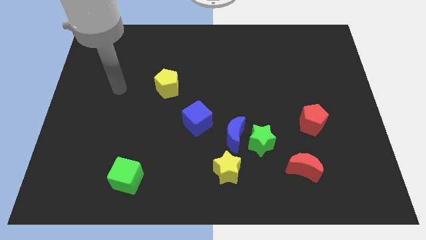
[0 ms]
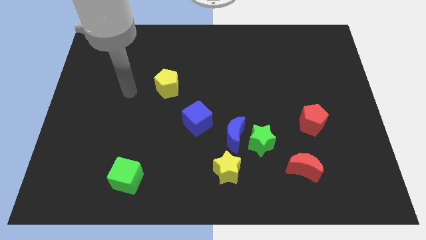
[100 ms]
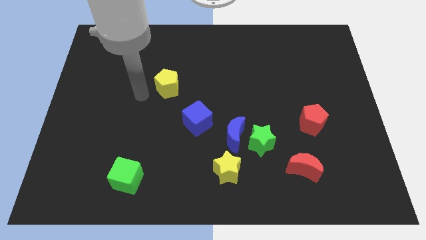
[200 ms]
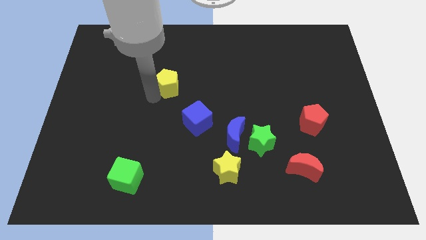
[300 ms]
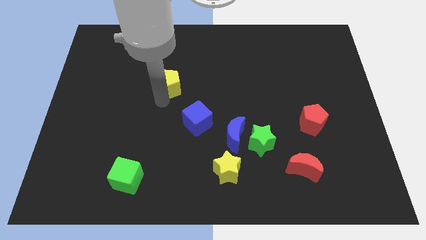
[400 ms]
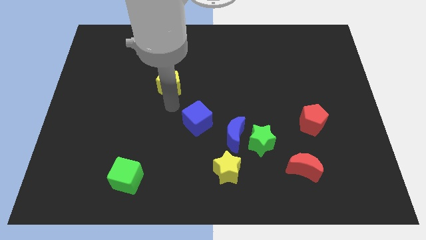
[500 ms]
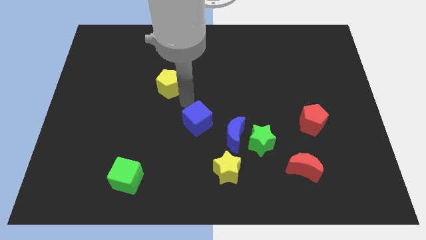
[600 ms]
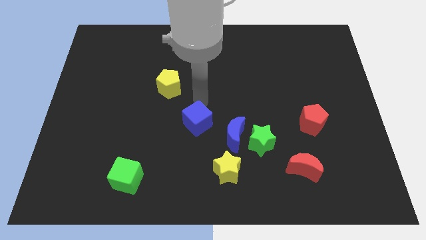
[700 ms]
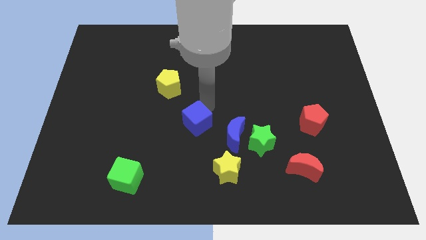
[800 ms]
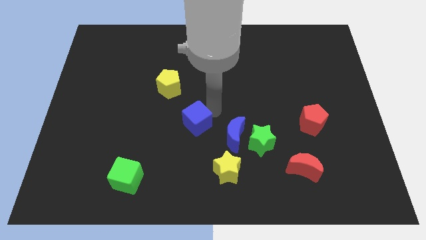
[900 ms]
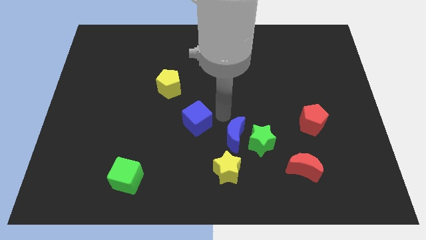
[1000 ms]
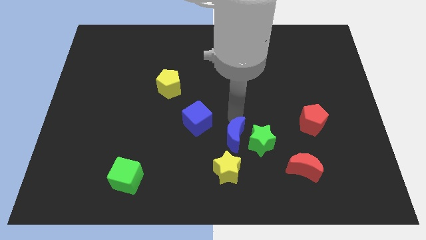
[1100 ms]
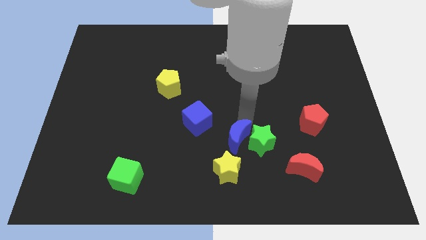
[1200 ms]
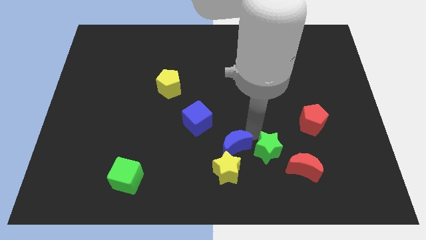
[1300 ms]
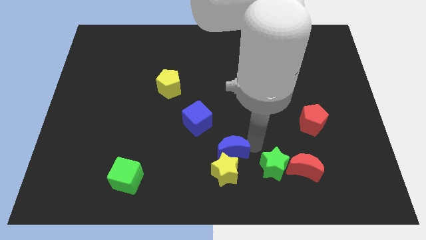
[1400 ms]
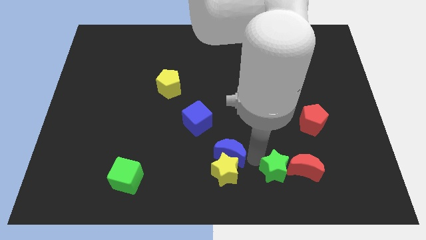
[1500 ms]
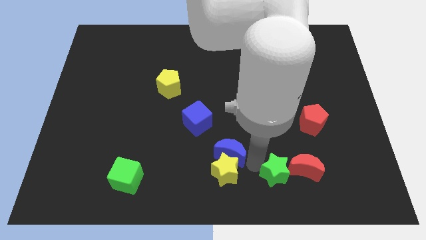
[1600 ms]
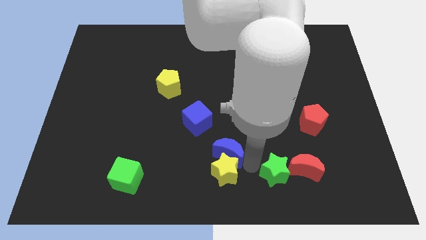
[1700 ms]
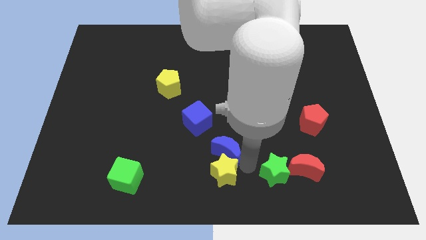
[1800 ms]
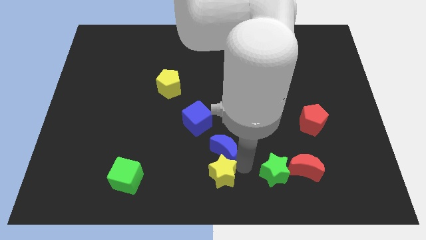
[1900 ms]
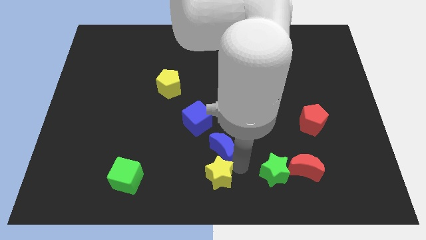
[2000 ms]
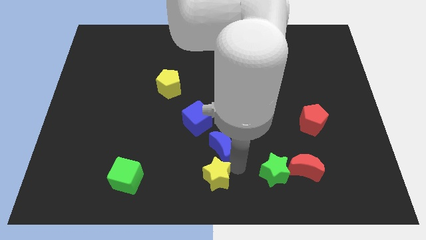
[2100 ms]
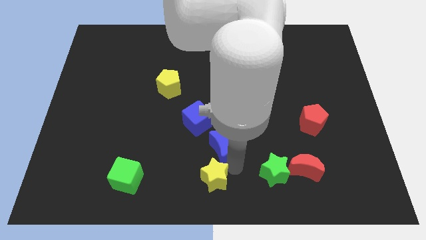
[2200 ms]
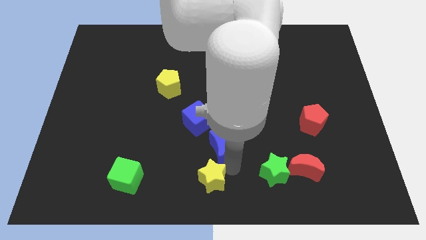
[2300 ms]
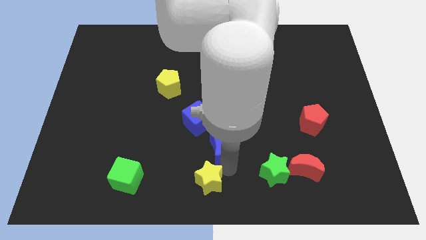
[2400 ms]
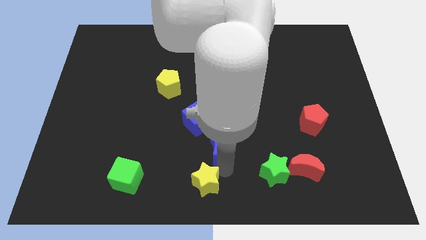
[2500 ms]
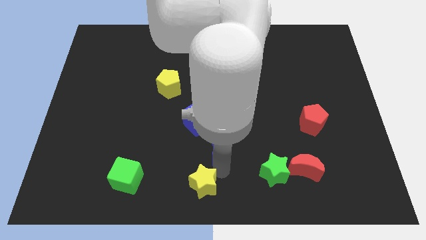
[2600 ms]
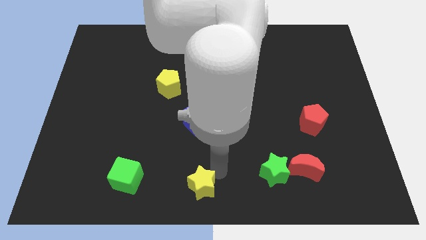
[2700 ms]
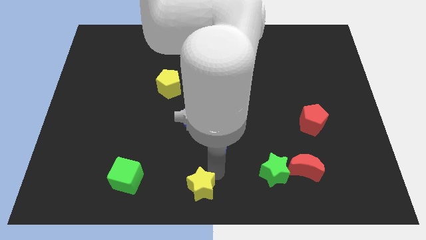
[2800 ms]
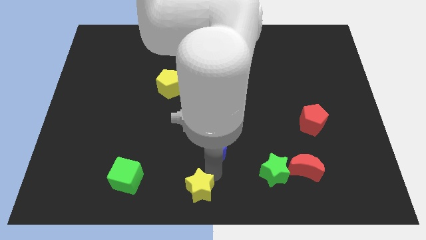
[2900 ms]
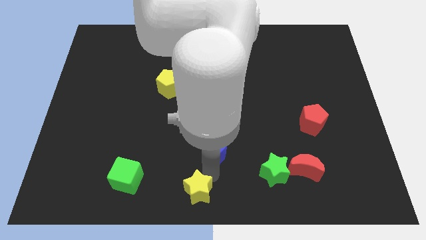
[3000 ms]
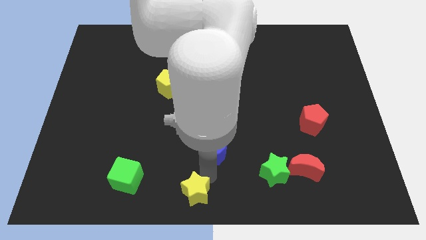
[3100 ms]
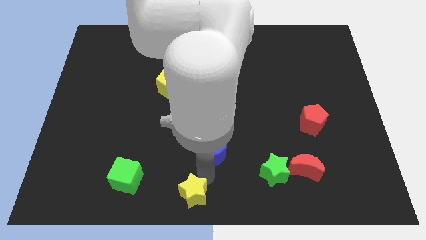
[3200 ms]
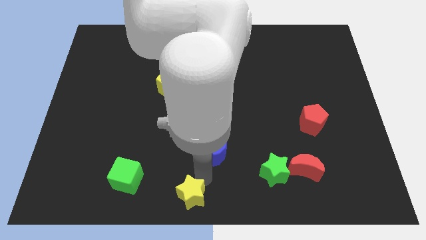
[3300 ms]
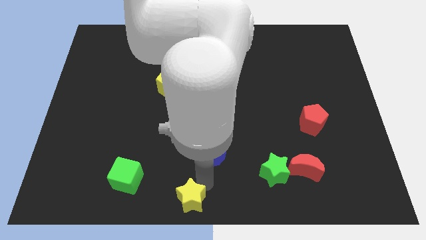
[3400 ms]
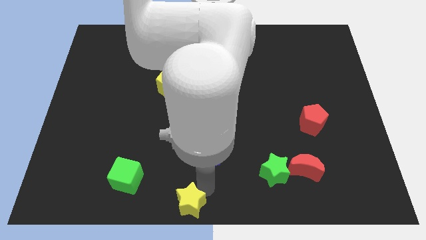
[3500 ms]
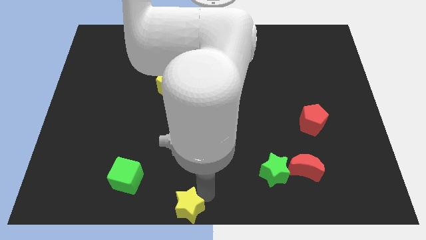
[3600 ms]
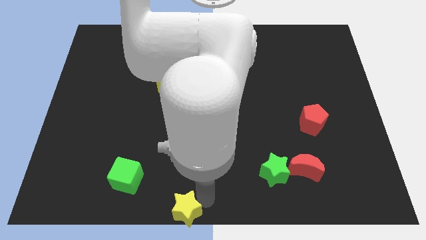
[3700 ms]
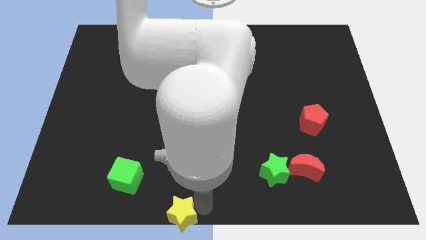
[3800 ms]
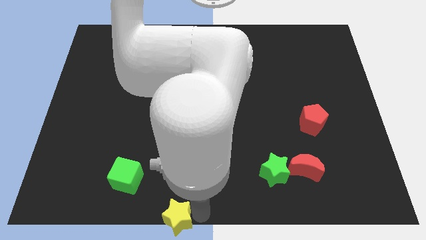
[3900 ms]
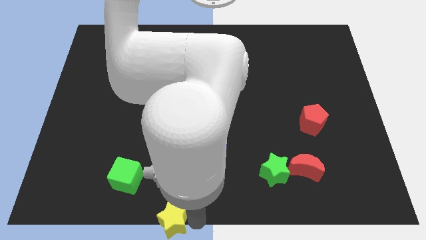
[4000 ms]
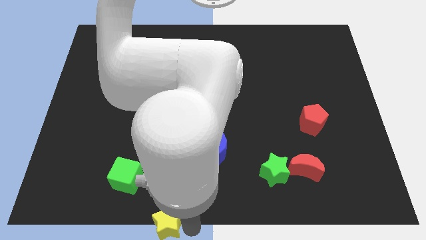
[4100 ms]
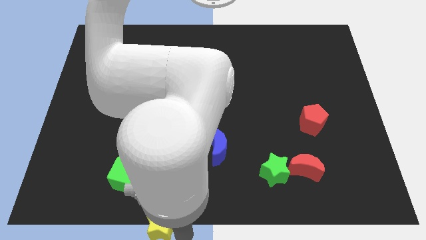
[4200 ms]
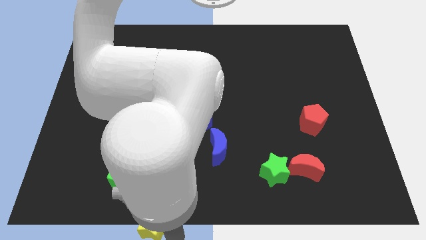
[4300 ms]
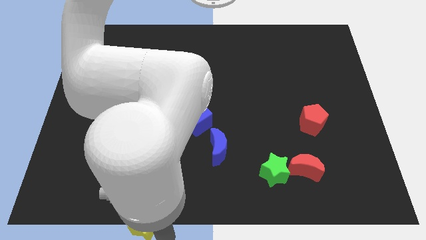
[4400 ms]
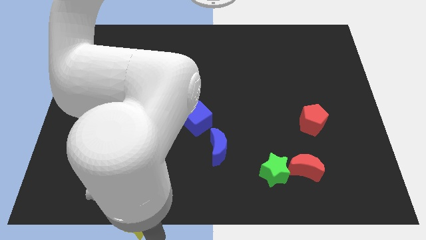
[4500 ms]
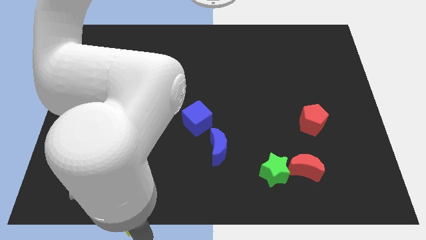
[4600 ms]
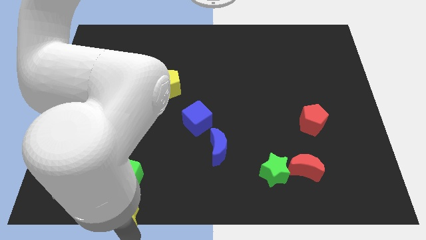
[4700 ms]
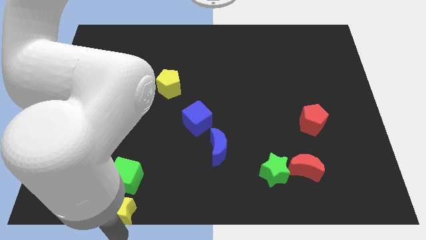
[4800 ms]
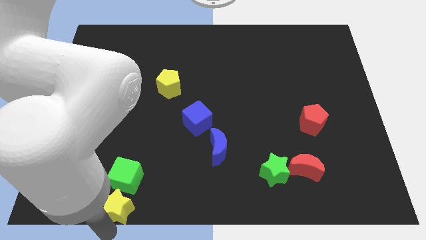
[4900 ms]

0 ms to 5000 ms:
slide the yellow star close to the green cube

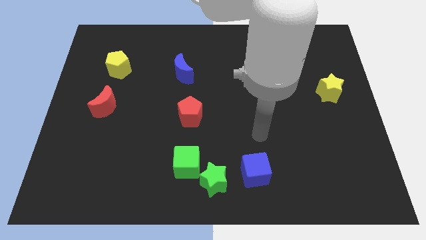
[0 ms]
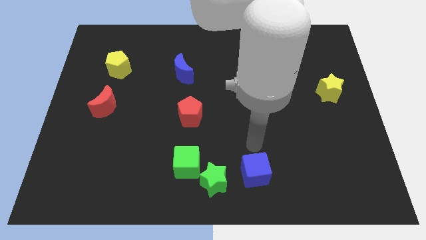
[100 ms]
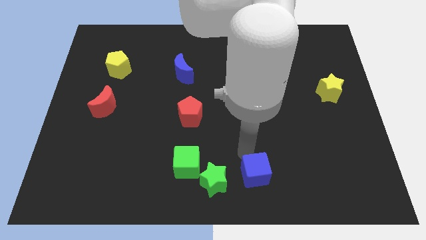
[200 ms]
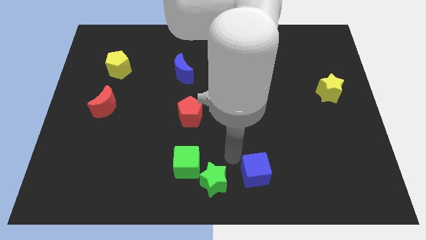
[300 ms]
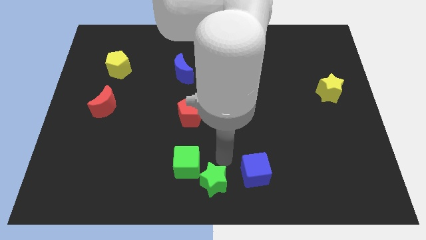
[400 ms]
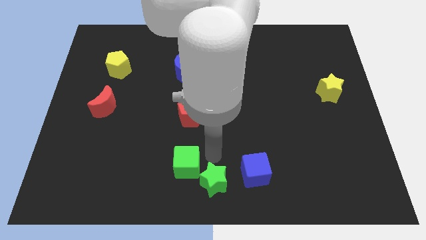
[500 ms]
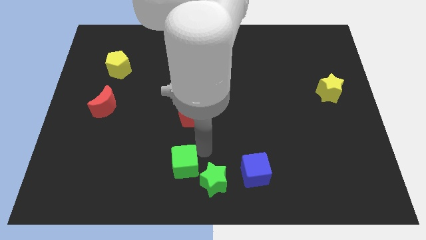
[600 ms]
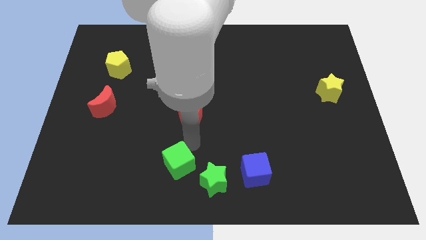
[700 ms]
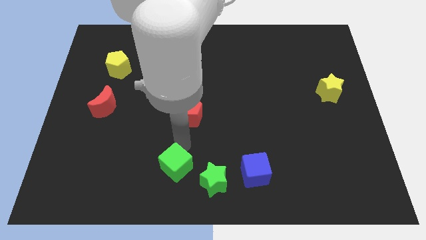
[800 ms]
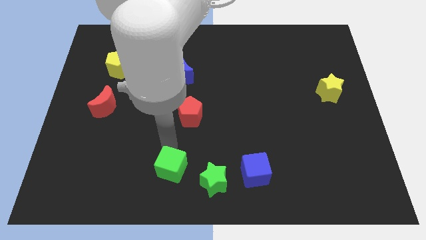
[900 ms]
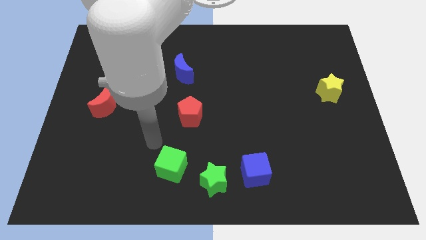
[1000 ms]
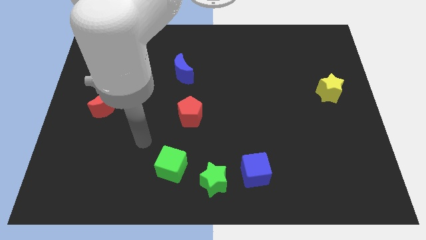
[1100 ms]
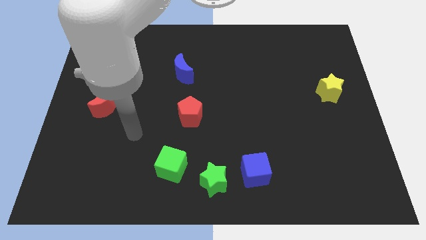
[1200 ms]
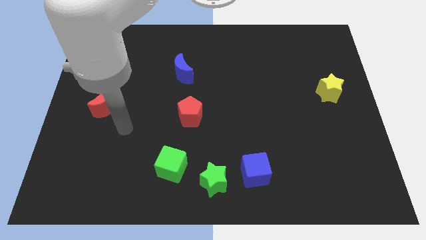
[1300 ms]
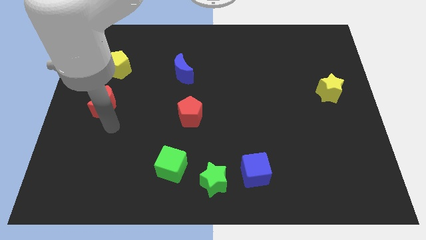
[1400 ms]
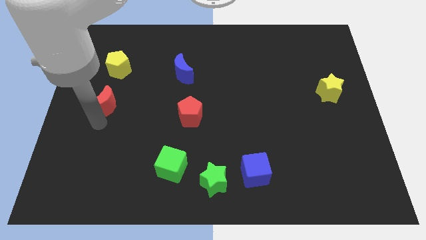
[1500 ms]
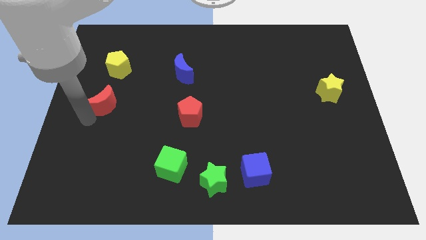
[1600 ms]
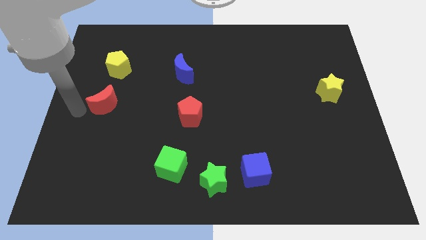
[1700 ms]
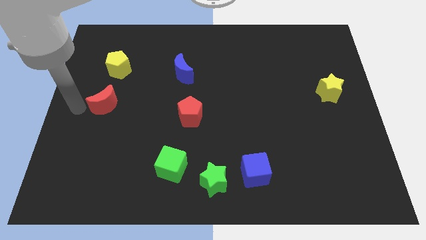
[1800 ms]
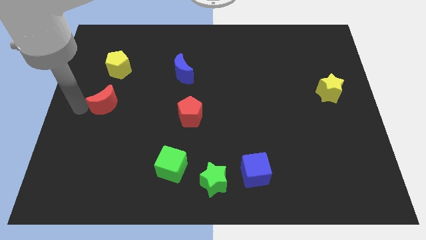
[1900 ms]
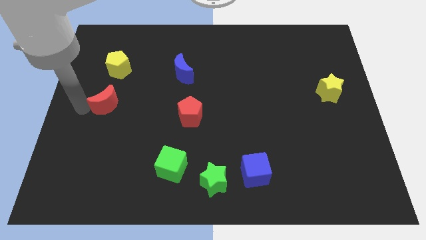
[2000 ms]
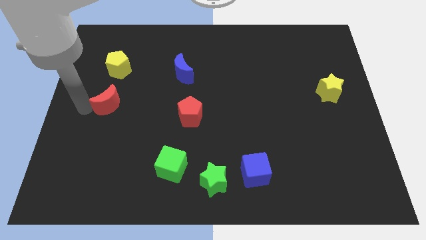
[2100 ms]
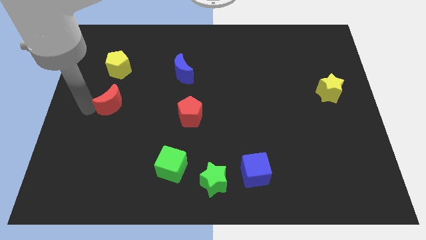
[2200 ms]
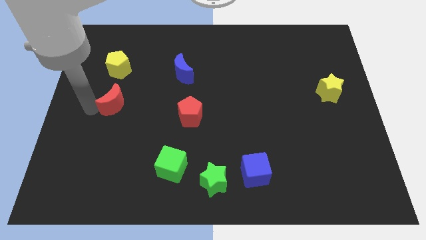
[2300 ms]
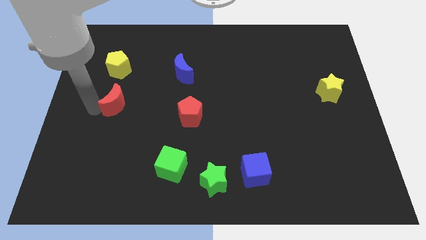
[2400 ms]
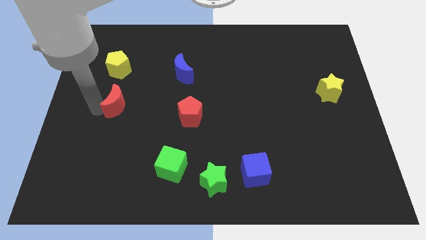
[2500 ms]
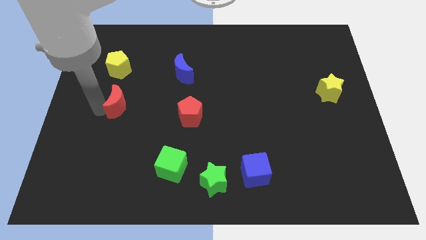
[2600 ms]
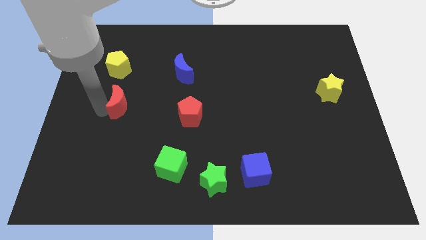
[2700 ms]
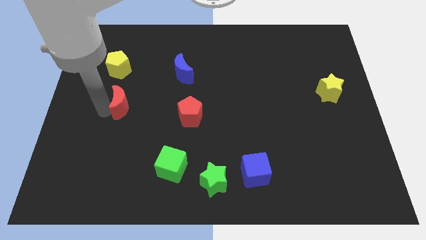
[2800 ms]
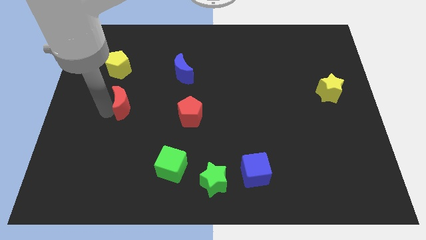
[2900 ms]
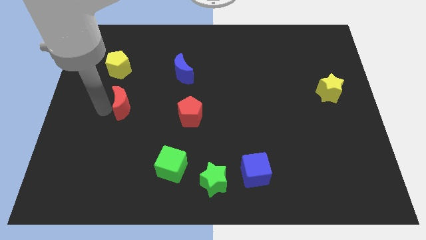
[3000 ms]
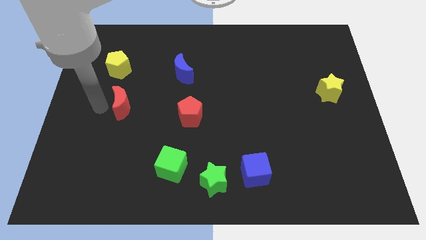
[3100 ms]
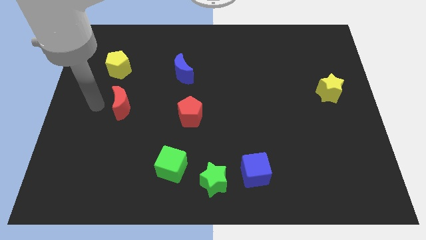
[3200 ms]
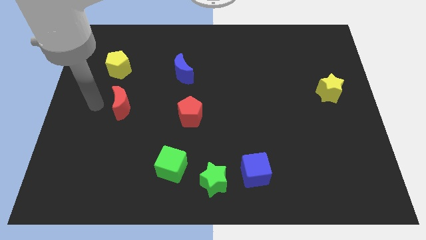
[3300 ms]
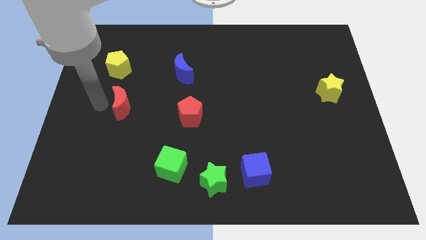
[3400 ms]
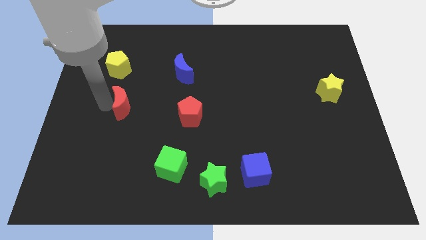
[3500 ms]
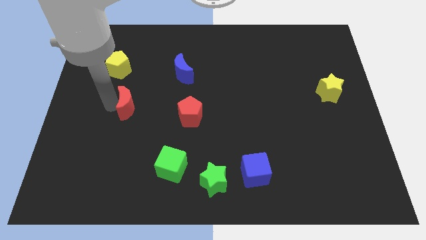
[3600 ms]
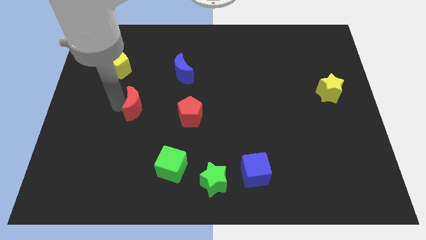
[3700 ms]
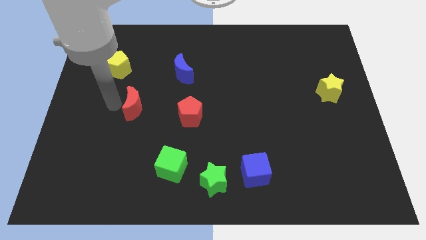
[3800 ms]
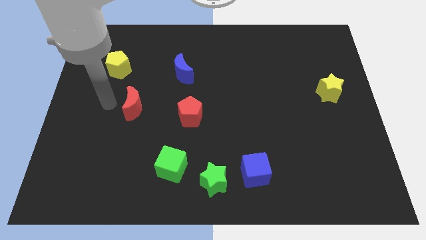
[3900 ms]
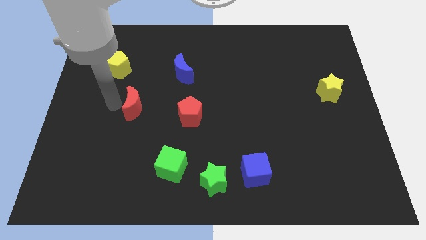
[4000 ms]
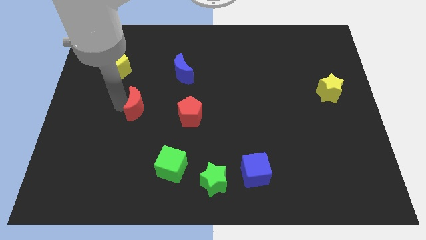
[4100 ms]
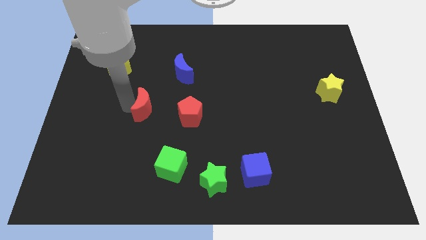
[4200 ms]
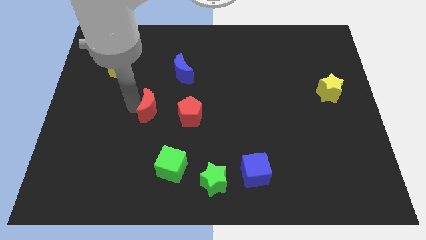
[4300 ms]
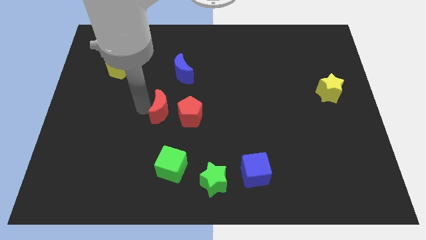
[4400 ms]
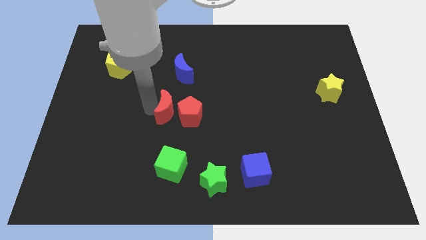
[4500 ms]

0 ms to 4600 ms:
push the red moon next to the red pentagon
